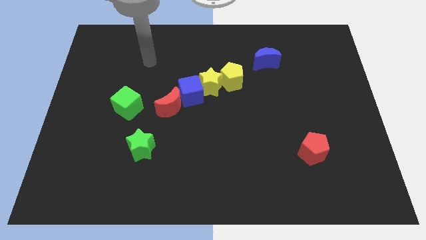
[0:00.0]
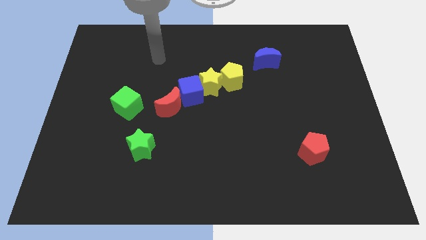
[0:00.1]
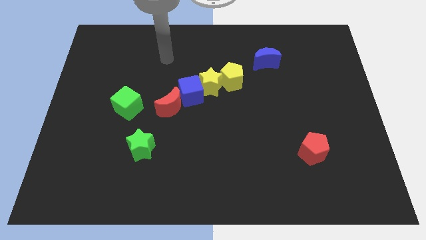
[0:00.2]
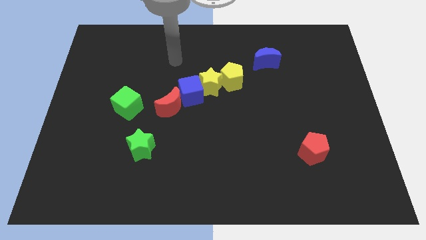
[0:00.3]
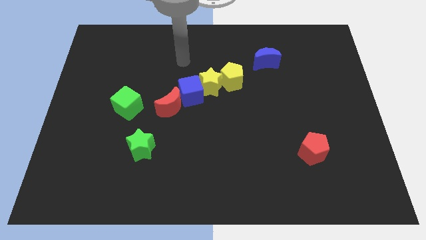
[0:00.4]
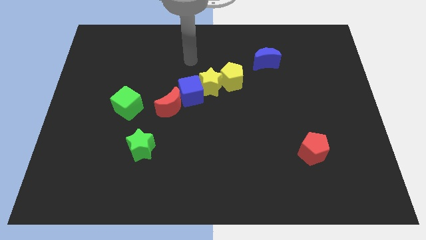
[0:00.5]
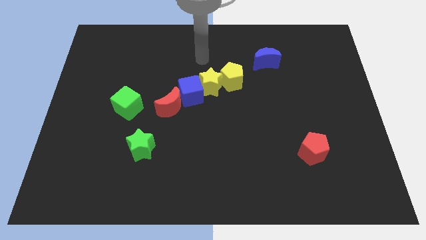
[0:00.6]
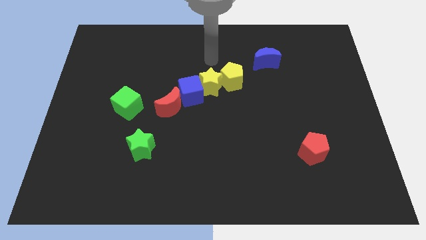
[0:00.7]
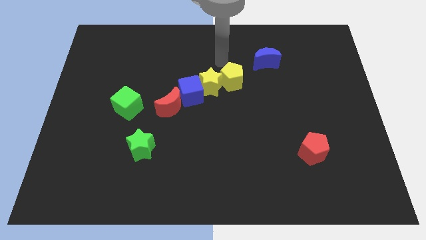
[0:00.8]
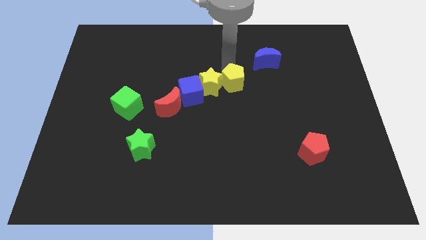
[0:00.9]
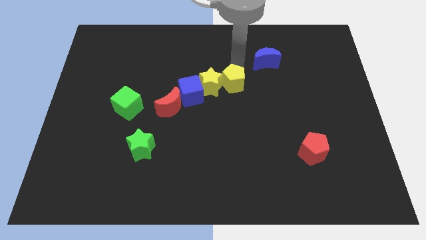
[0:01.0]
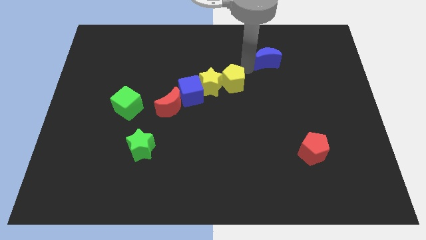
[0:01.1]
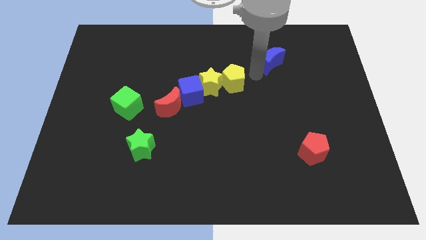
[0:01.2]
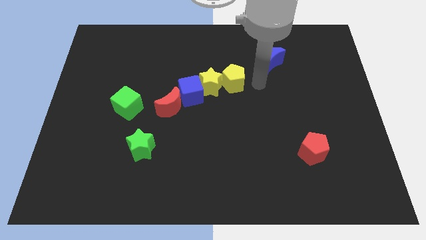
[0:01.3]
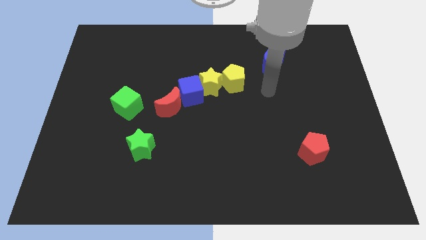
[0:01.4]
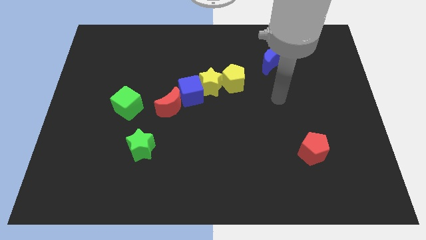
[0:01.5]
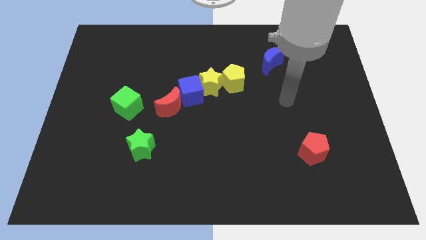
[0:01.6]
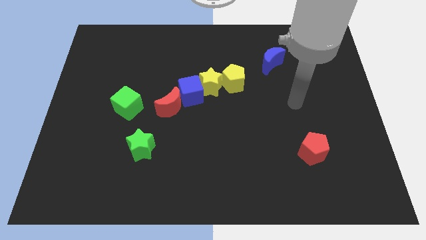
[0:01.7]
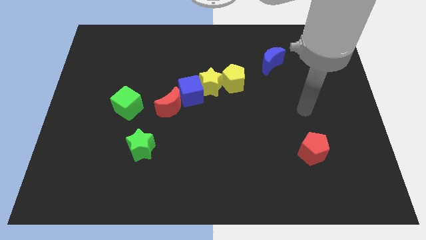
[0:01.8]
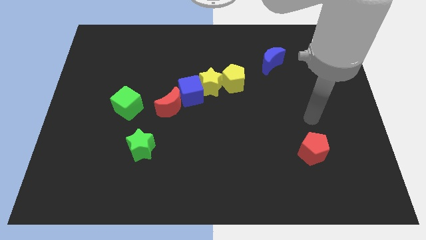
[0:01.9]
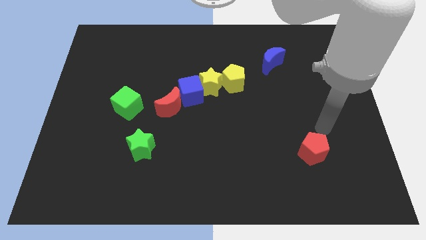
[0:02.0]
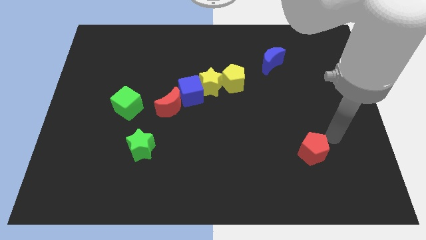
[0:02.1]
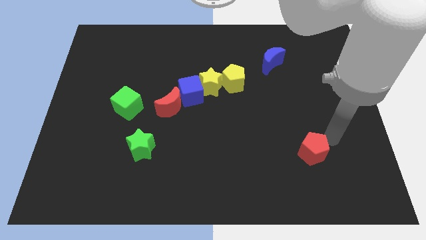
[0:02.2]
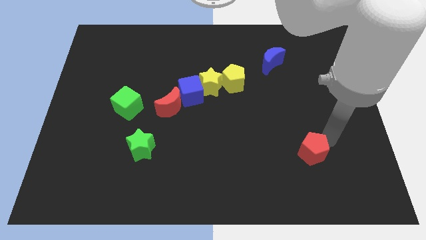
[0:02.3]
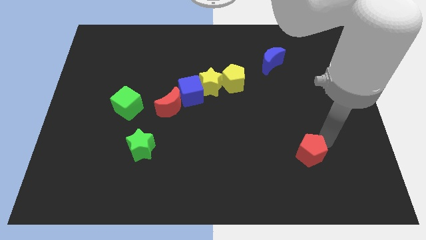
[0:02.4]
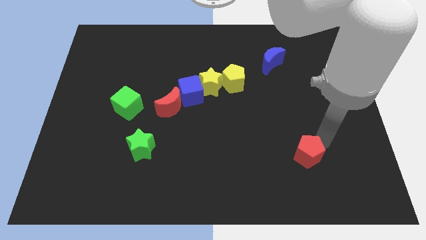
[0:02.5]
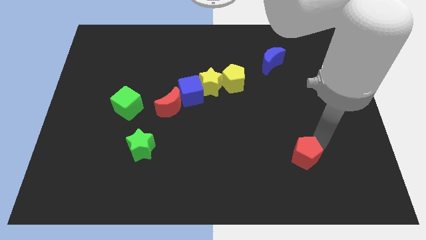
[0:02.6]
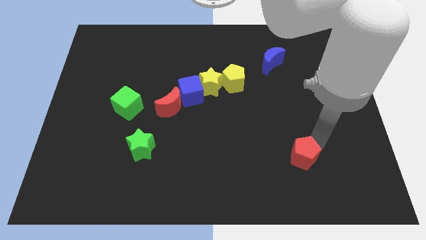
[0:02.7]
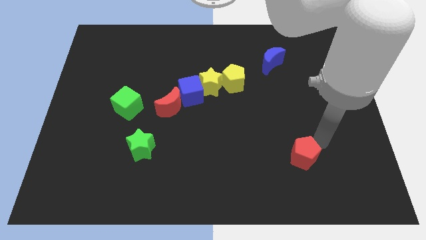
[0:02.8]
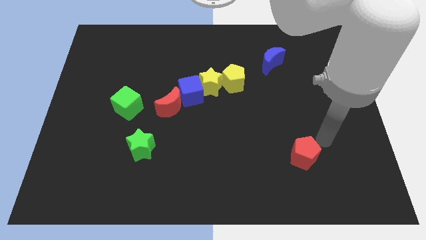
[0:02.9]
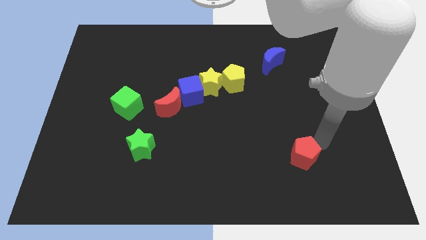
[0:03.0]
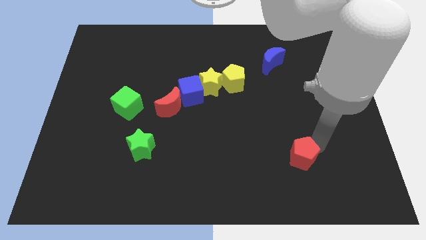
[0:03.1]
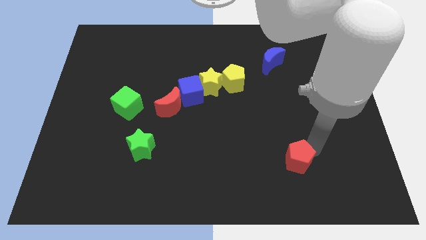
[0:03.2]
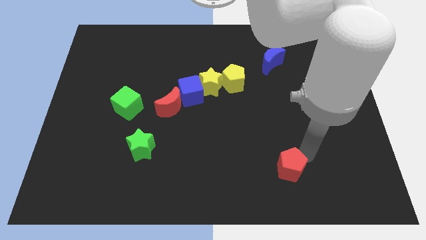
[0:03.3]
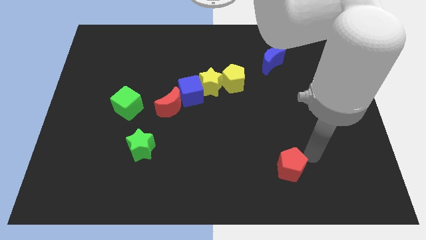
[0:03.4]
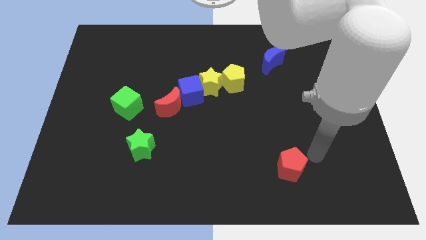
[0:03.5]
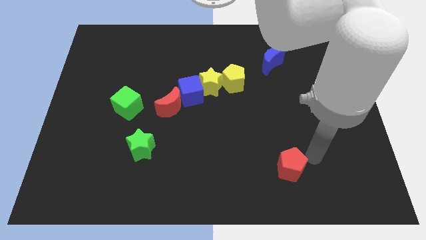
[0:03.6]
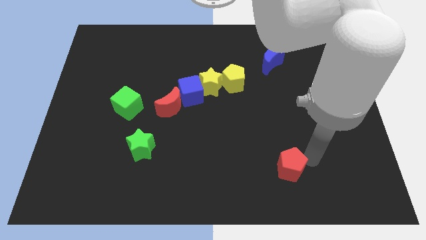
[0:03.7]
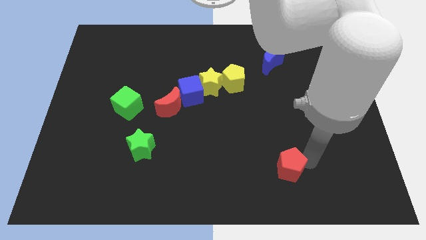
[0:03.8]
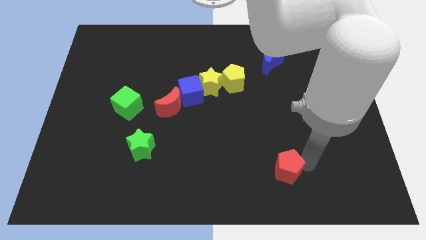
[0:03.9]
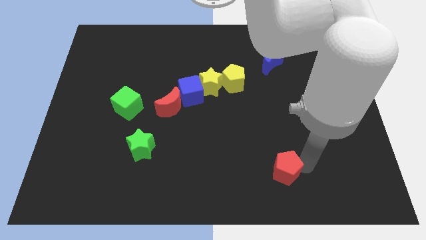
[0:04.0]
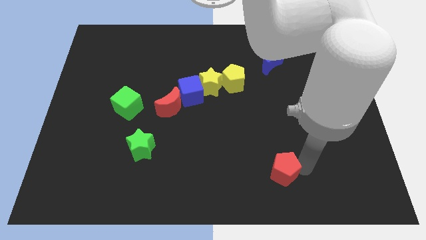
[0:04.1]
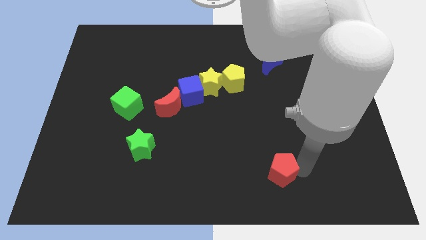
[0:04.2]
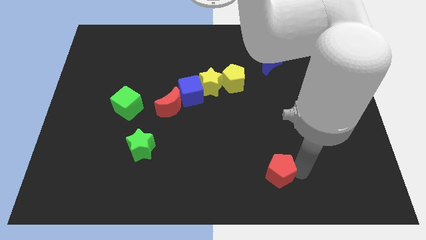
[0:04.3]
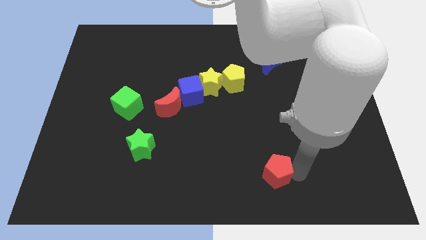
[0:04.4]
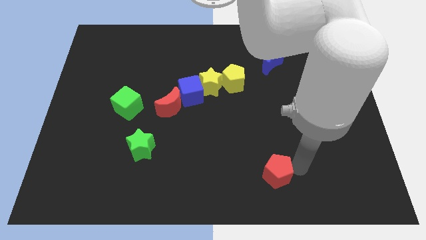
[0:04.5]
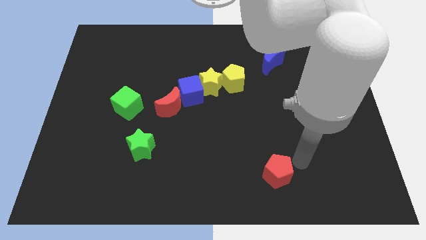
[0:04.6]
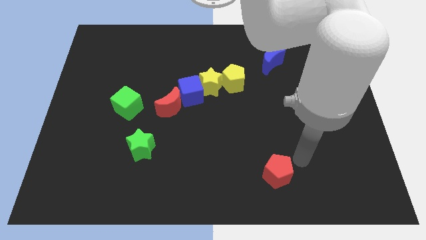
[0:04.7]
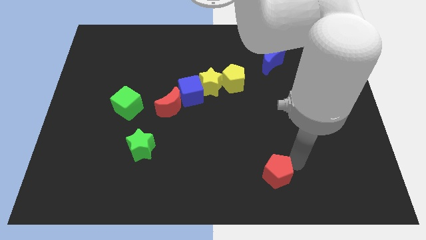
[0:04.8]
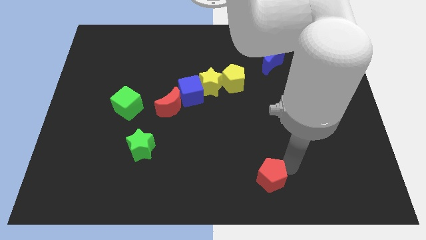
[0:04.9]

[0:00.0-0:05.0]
put the red pentagon to the bottom side
